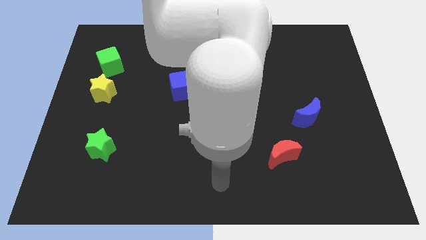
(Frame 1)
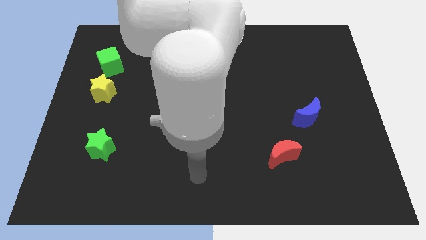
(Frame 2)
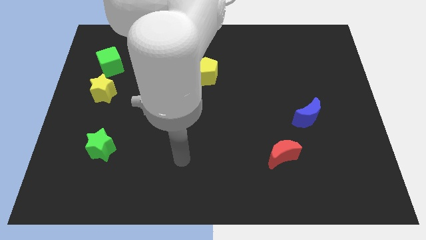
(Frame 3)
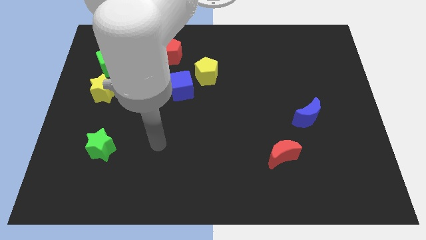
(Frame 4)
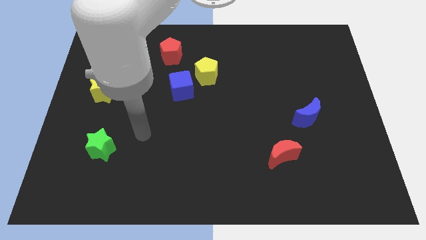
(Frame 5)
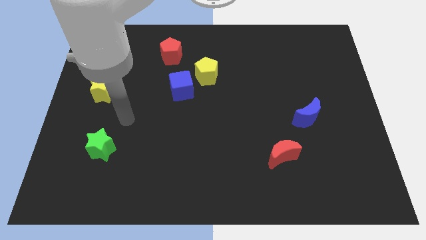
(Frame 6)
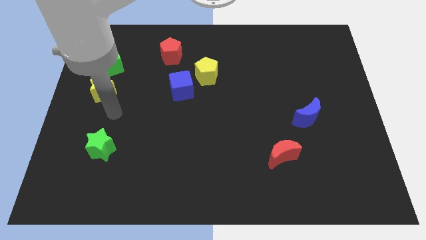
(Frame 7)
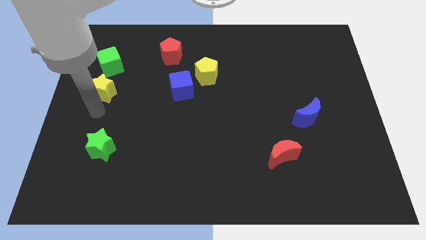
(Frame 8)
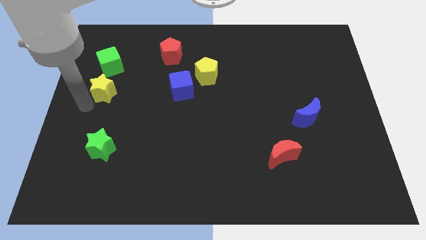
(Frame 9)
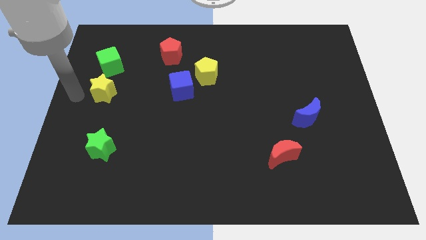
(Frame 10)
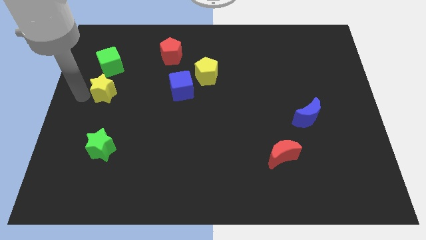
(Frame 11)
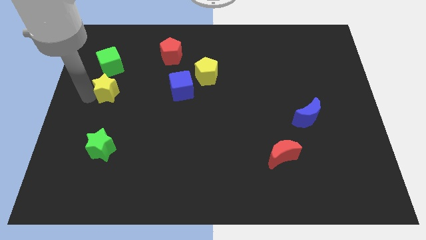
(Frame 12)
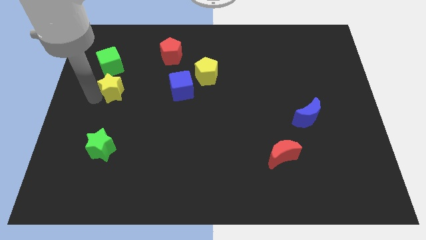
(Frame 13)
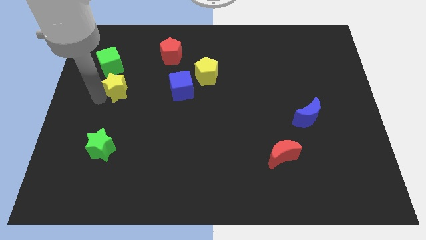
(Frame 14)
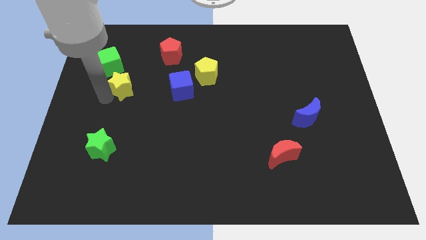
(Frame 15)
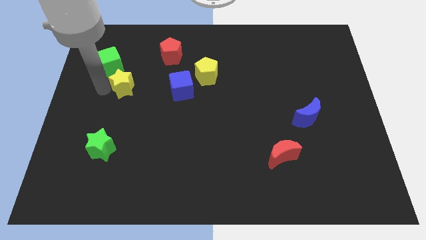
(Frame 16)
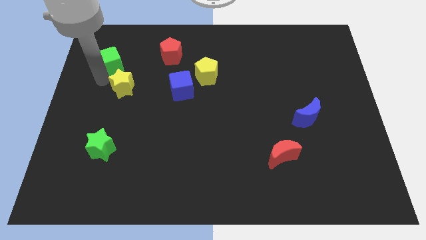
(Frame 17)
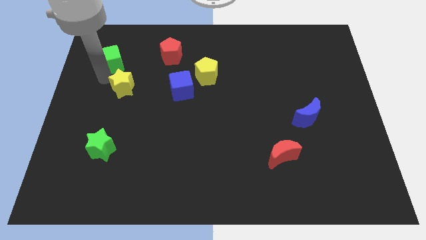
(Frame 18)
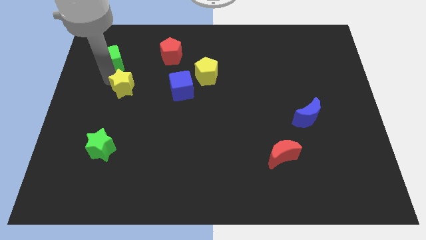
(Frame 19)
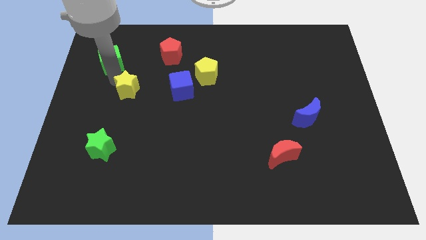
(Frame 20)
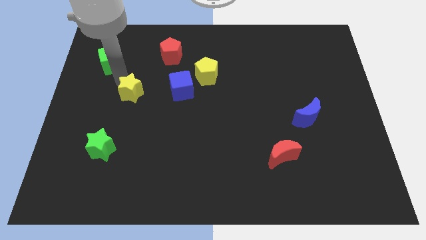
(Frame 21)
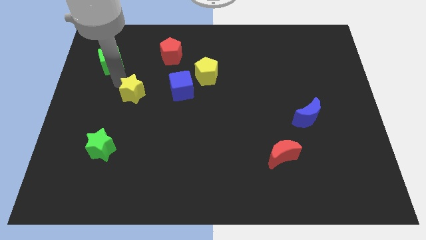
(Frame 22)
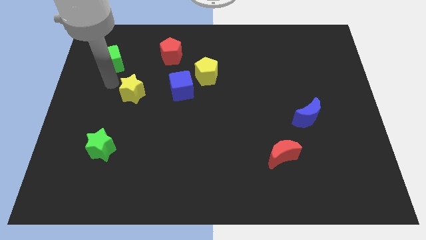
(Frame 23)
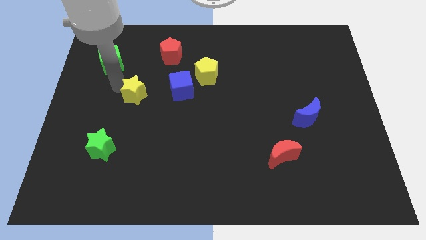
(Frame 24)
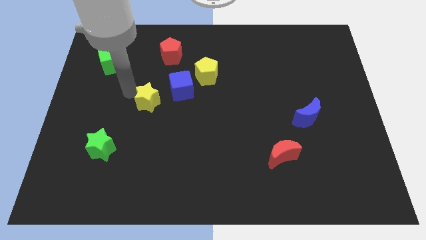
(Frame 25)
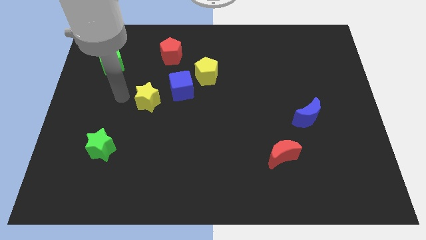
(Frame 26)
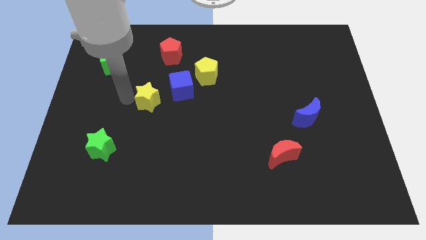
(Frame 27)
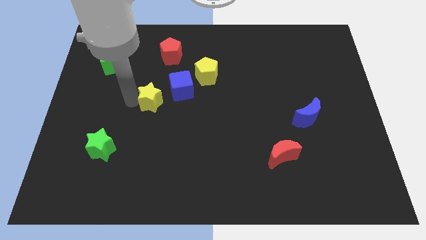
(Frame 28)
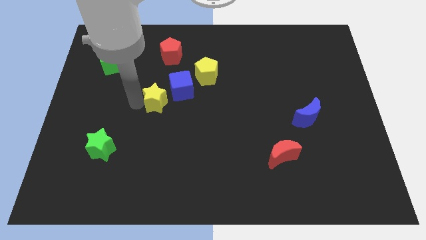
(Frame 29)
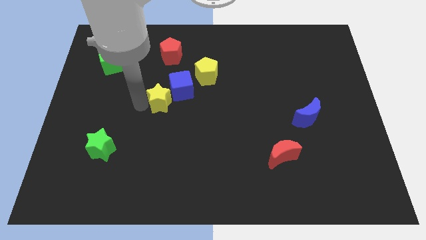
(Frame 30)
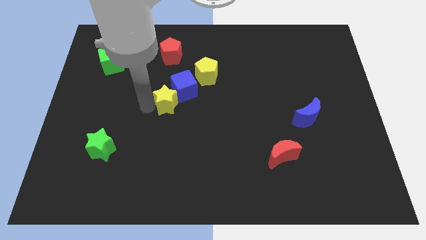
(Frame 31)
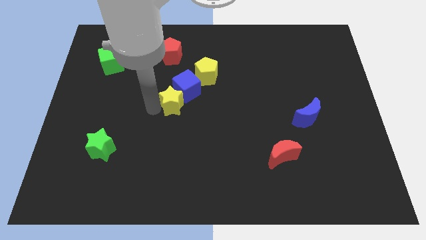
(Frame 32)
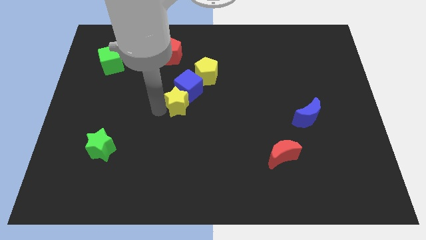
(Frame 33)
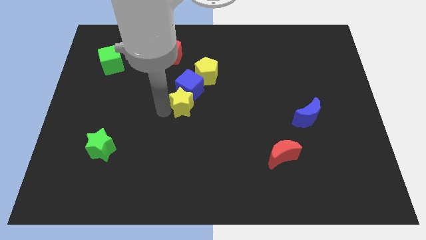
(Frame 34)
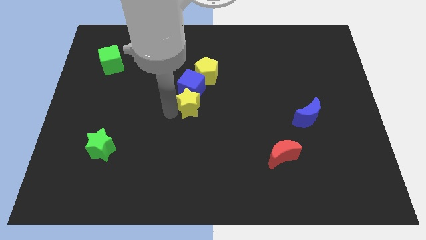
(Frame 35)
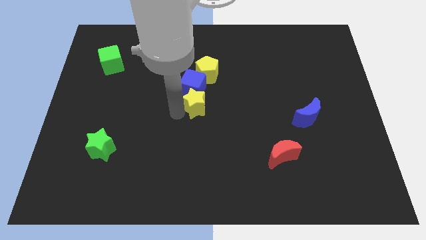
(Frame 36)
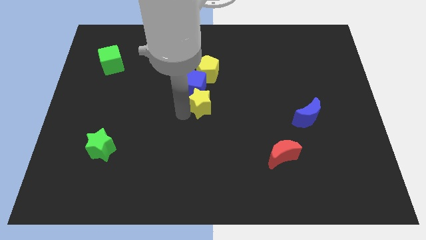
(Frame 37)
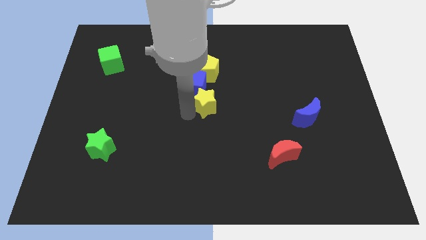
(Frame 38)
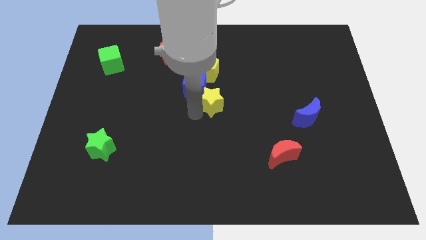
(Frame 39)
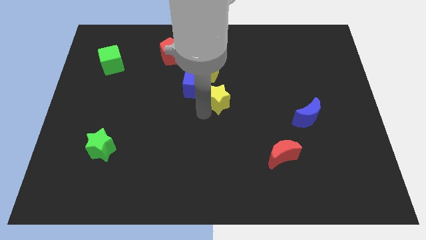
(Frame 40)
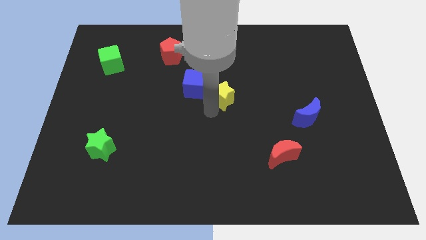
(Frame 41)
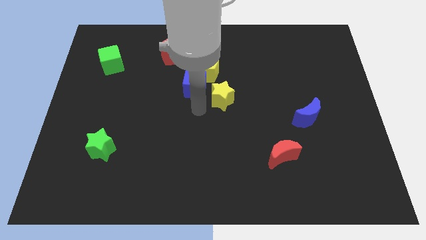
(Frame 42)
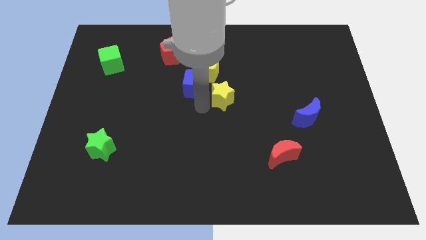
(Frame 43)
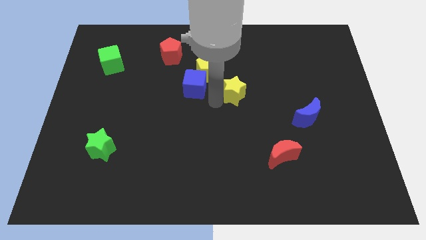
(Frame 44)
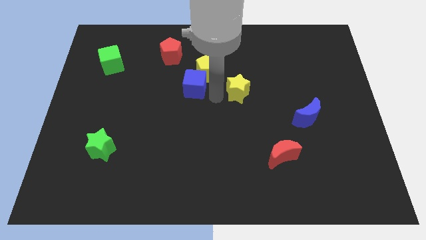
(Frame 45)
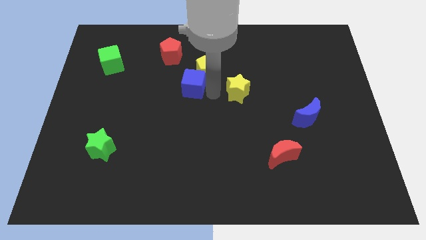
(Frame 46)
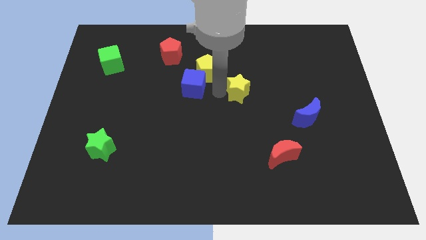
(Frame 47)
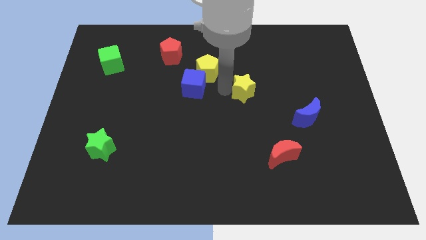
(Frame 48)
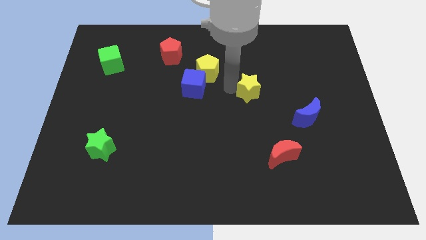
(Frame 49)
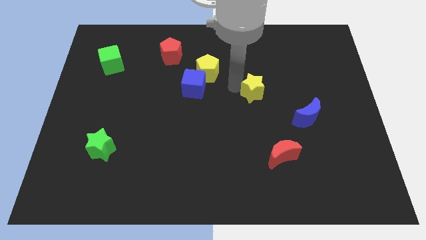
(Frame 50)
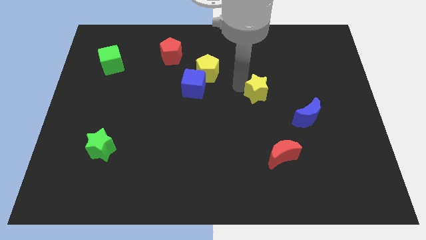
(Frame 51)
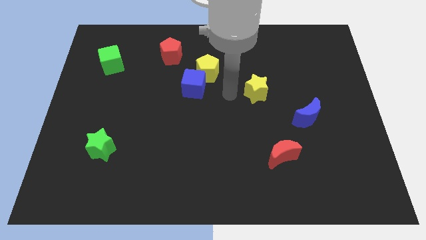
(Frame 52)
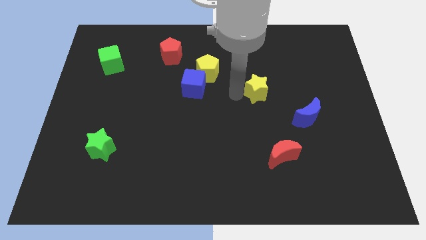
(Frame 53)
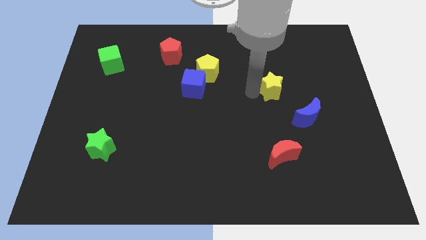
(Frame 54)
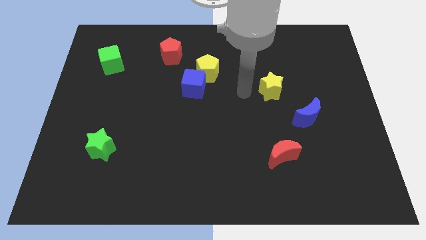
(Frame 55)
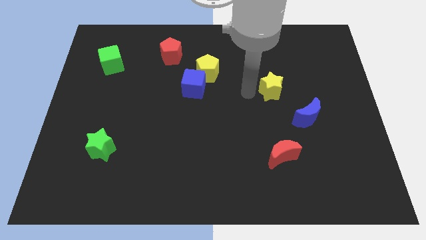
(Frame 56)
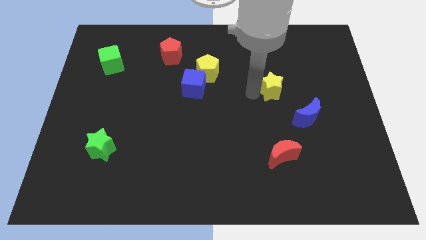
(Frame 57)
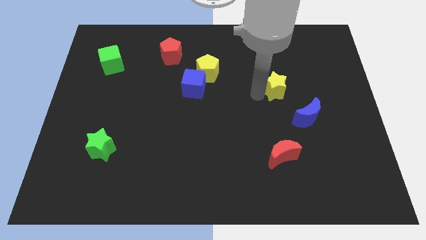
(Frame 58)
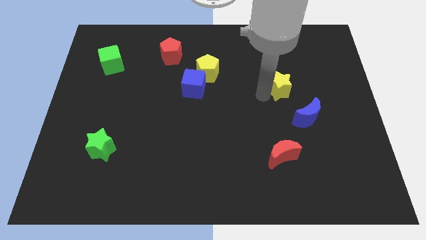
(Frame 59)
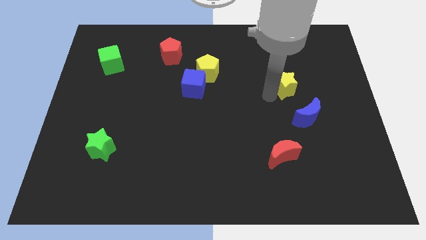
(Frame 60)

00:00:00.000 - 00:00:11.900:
move the yellow star to the top of the blue moon

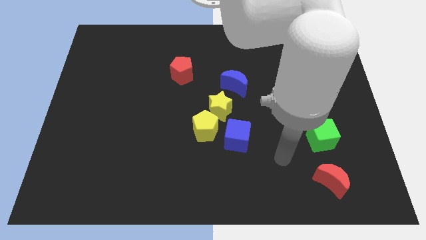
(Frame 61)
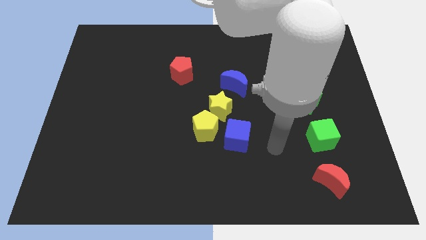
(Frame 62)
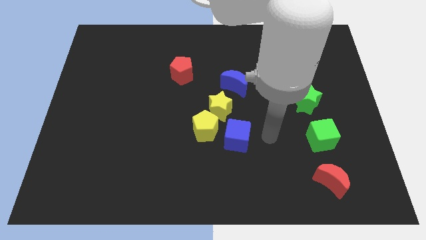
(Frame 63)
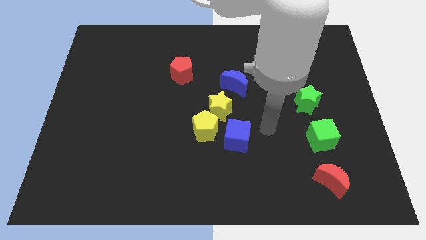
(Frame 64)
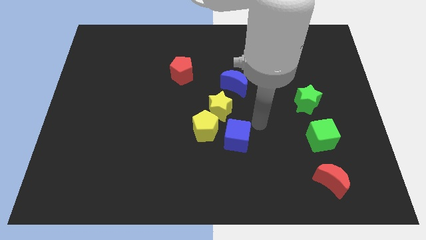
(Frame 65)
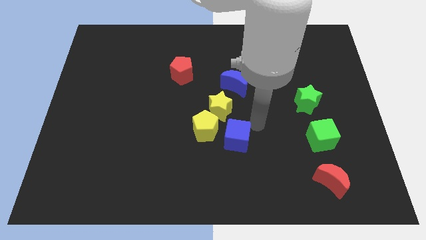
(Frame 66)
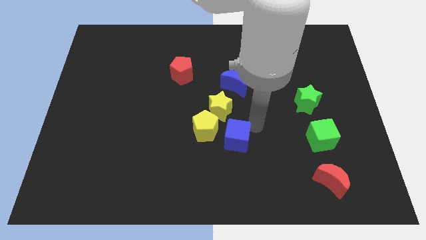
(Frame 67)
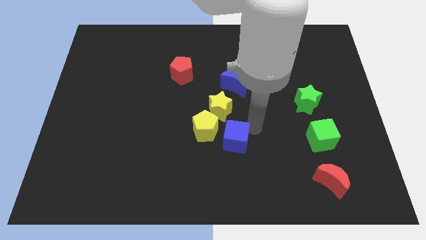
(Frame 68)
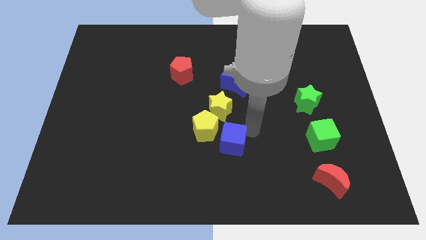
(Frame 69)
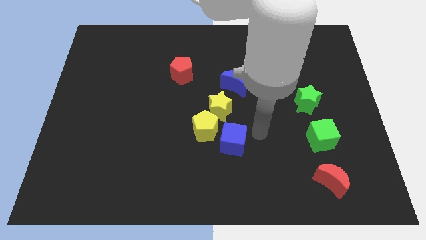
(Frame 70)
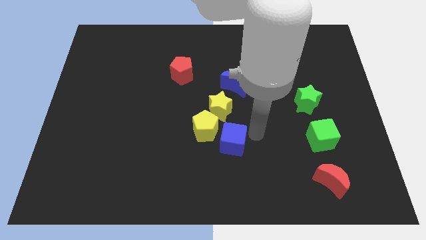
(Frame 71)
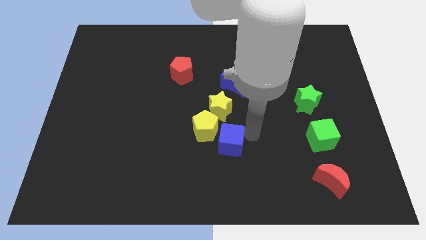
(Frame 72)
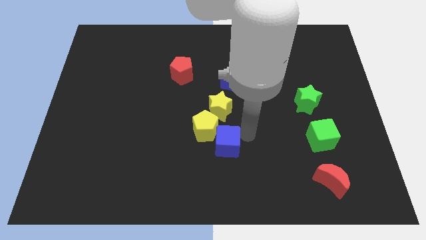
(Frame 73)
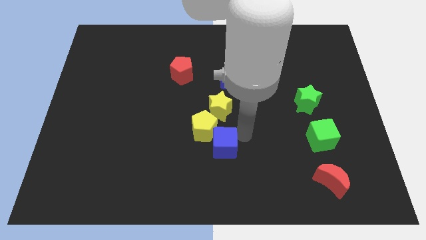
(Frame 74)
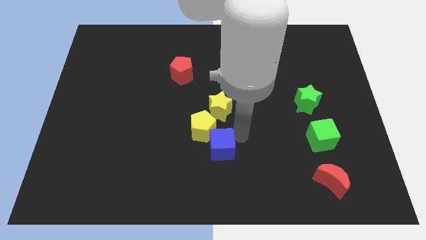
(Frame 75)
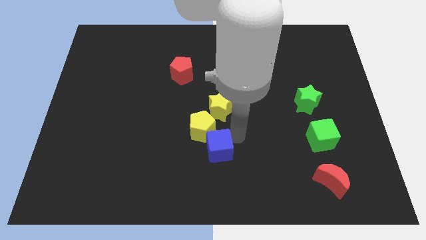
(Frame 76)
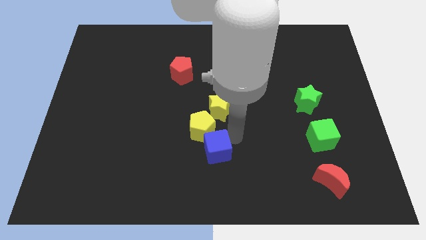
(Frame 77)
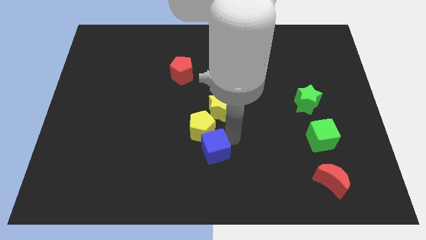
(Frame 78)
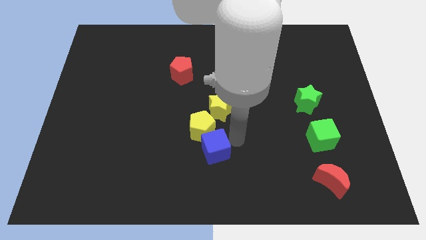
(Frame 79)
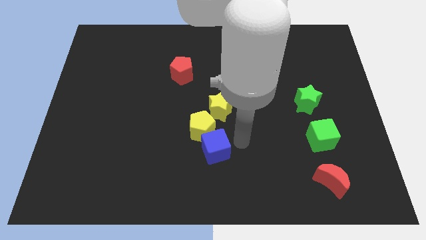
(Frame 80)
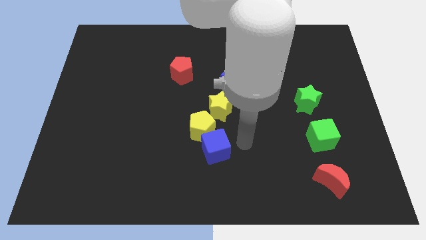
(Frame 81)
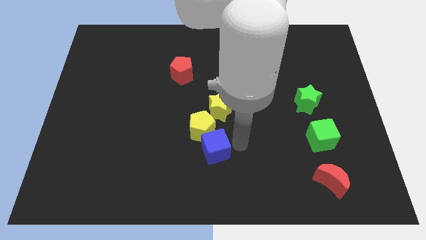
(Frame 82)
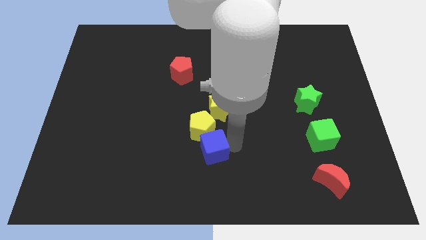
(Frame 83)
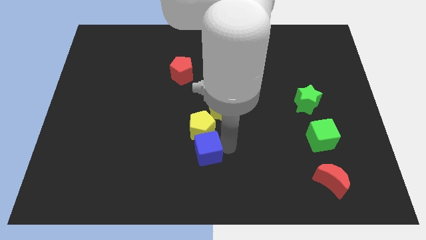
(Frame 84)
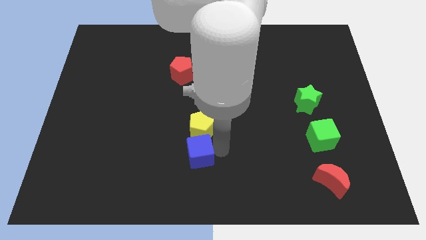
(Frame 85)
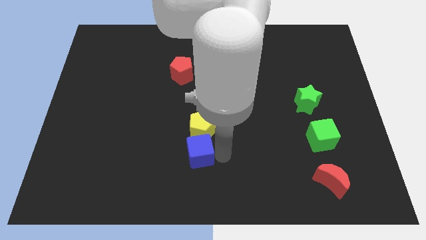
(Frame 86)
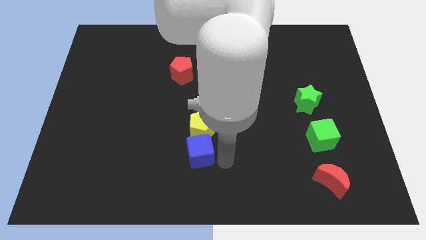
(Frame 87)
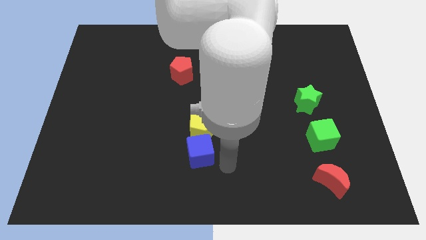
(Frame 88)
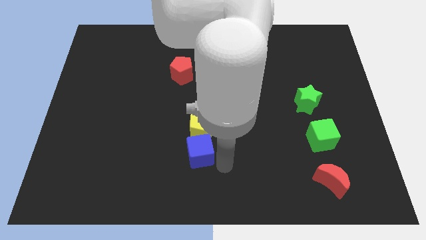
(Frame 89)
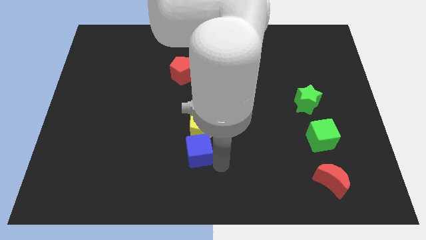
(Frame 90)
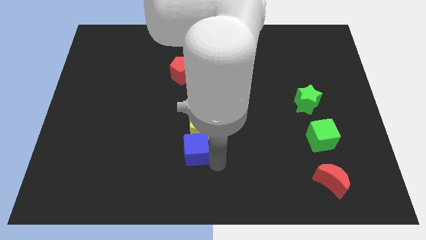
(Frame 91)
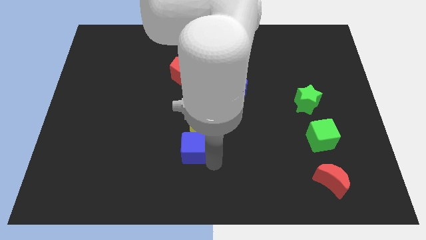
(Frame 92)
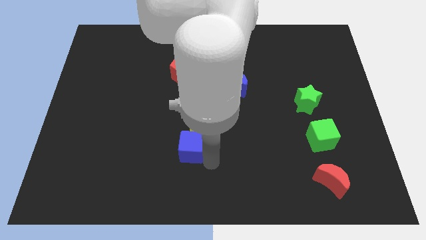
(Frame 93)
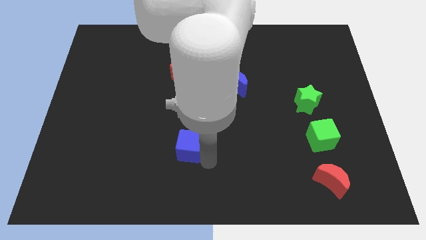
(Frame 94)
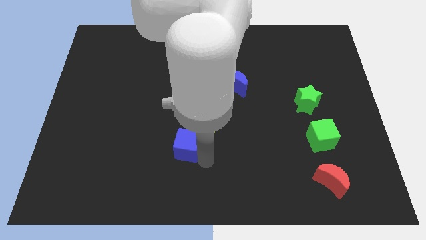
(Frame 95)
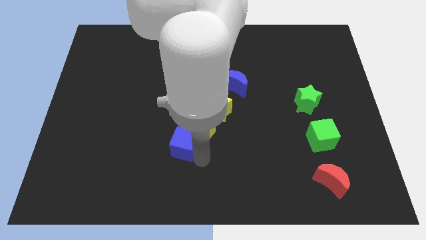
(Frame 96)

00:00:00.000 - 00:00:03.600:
put the blue cube left of the yellow pentagon
